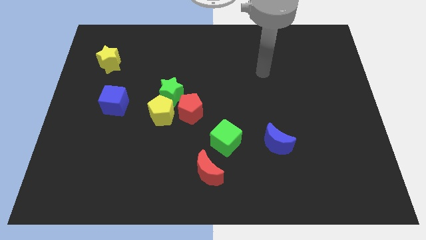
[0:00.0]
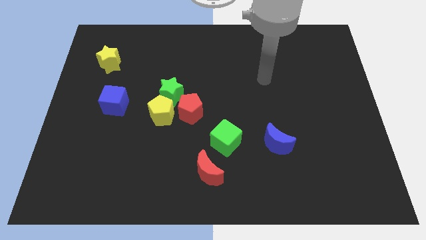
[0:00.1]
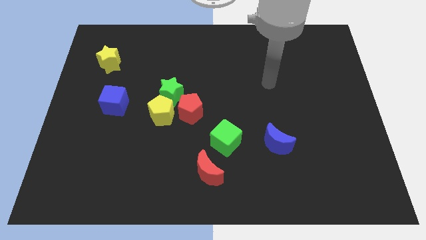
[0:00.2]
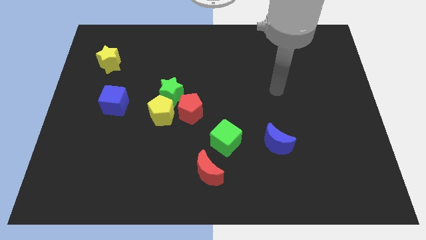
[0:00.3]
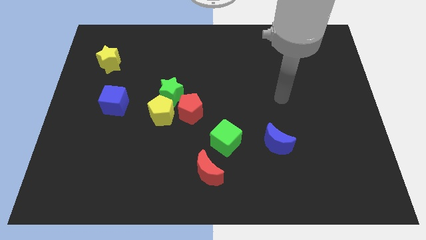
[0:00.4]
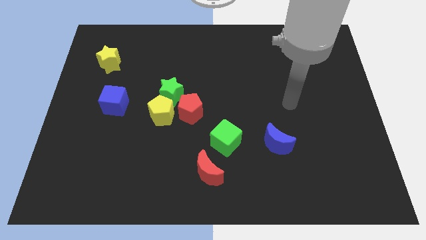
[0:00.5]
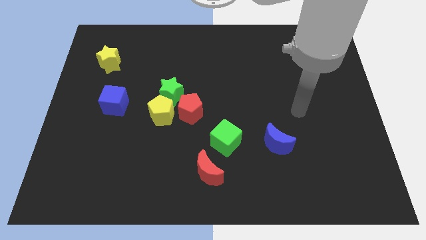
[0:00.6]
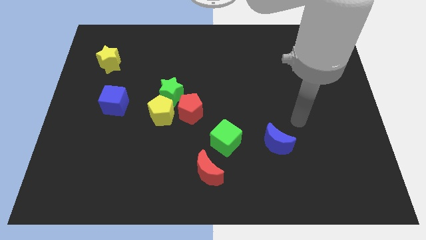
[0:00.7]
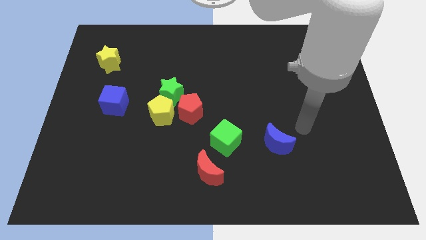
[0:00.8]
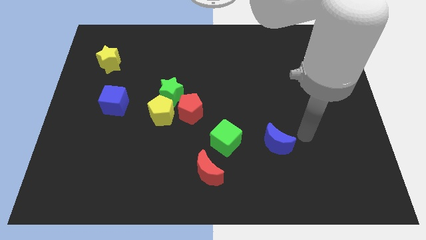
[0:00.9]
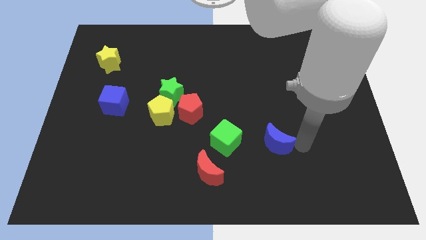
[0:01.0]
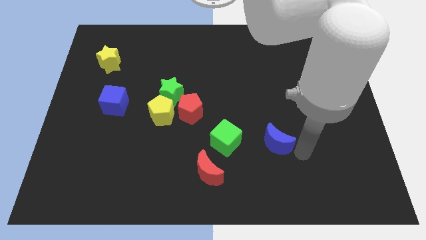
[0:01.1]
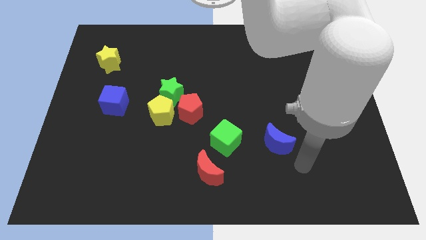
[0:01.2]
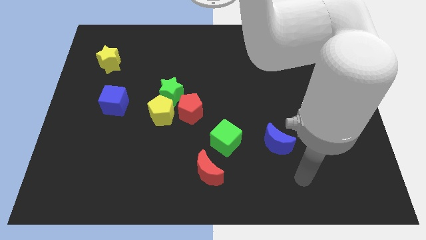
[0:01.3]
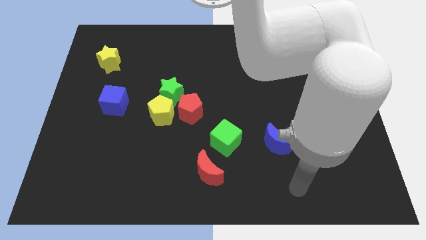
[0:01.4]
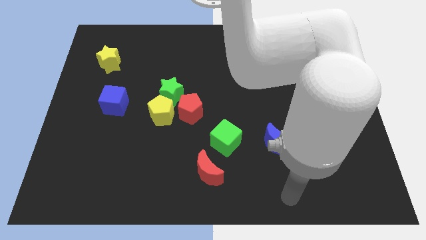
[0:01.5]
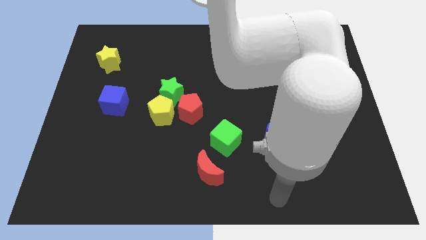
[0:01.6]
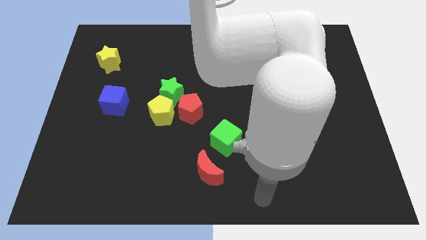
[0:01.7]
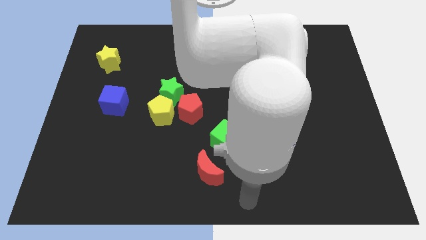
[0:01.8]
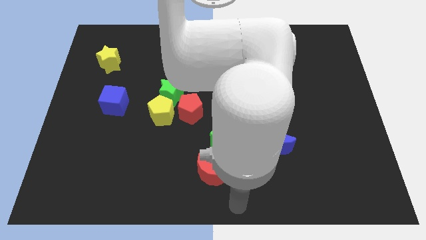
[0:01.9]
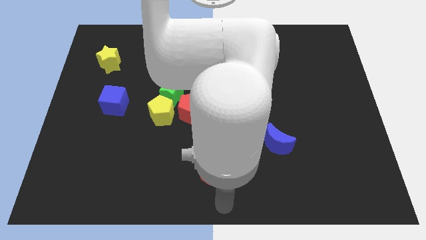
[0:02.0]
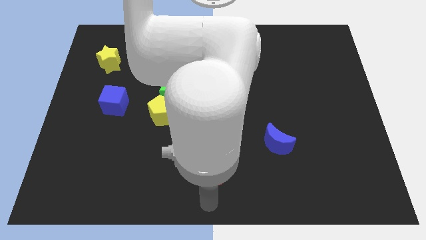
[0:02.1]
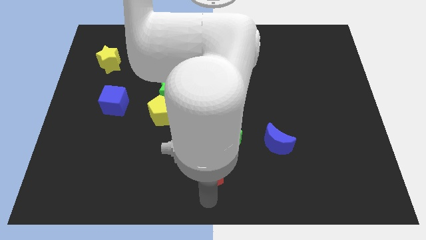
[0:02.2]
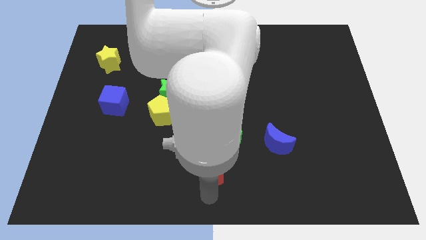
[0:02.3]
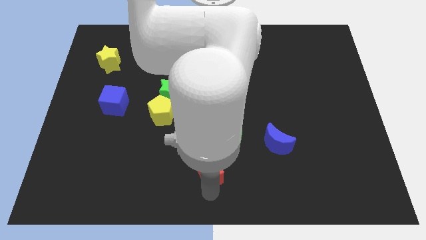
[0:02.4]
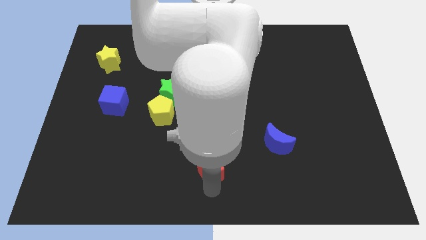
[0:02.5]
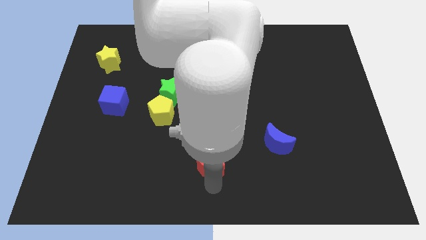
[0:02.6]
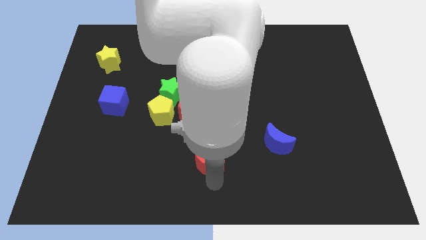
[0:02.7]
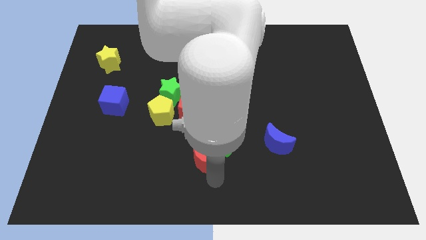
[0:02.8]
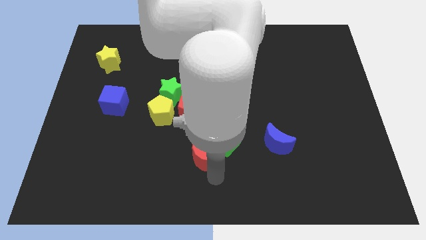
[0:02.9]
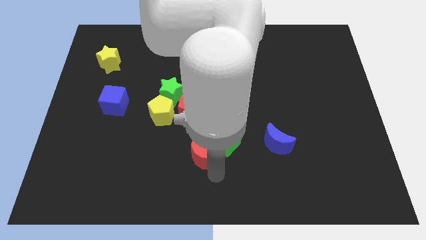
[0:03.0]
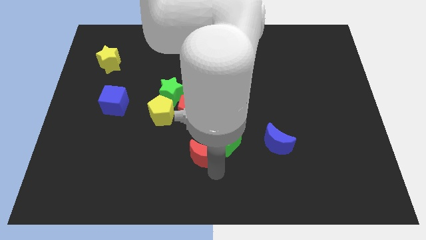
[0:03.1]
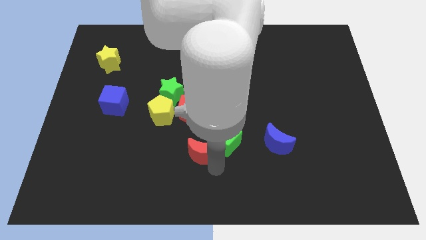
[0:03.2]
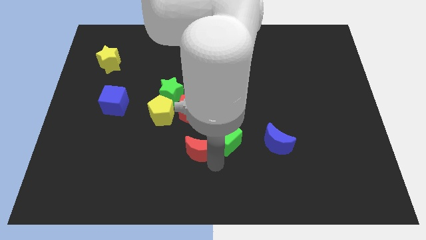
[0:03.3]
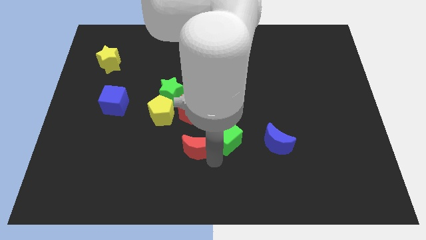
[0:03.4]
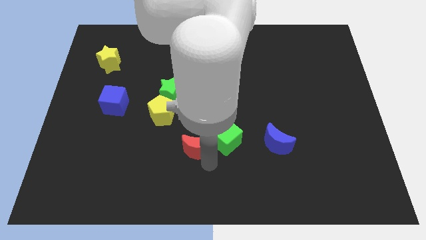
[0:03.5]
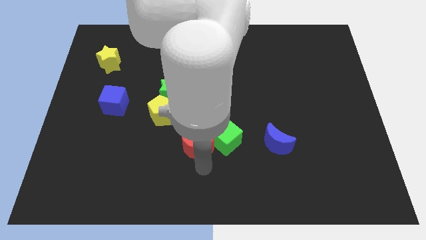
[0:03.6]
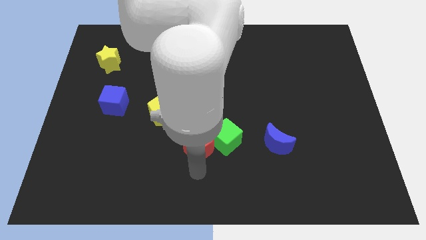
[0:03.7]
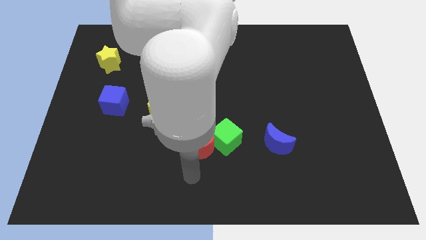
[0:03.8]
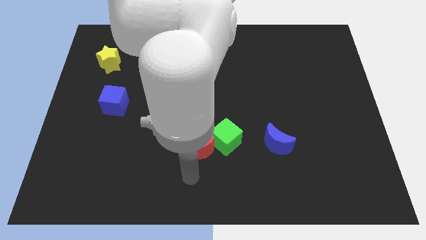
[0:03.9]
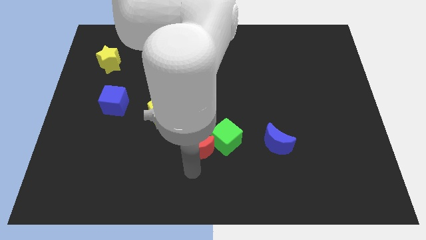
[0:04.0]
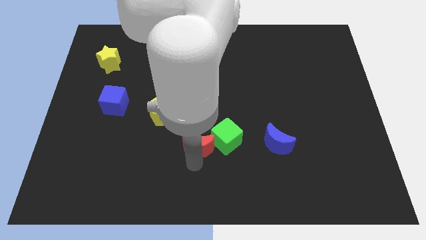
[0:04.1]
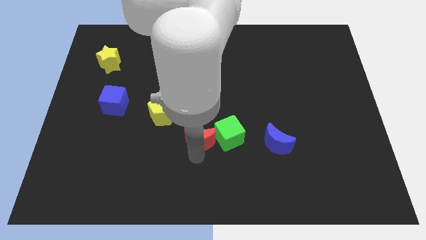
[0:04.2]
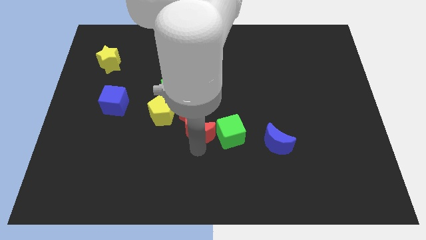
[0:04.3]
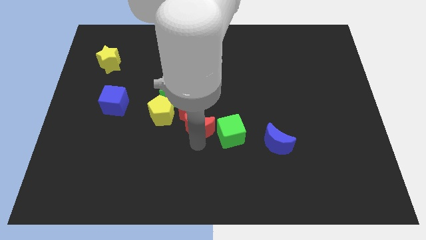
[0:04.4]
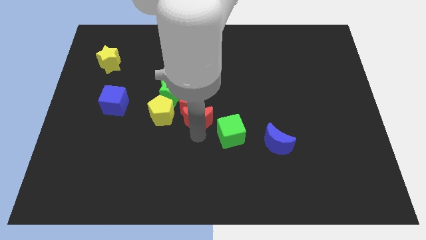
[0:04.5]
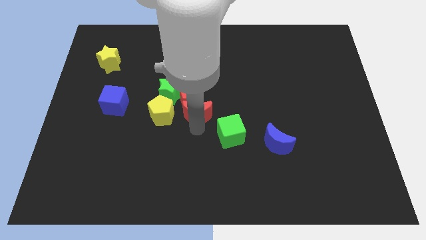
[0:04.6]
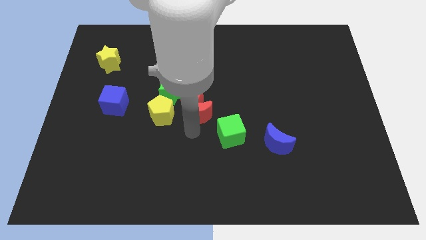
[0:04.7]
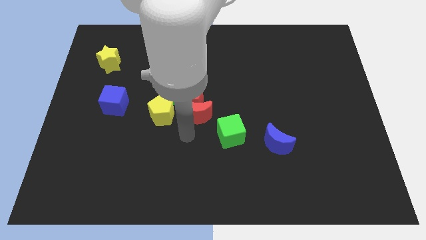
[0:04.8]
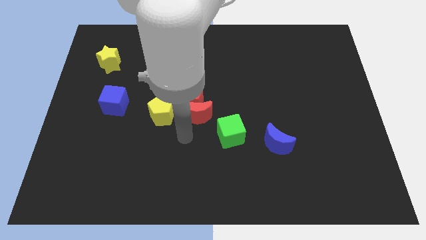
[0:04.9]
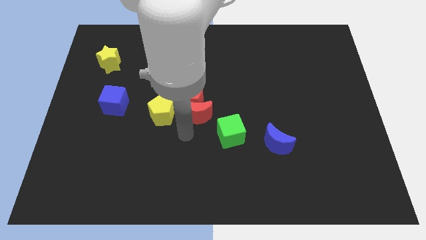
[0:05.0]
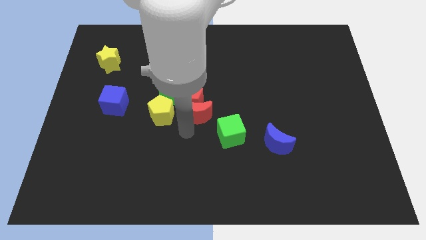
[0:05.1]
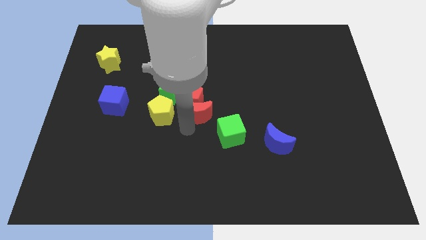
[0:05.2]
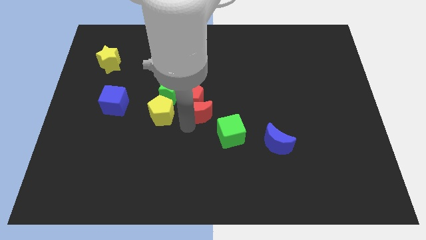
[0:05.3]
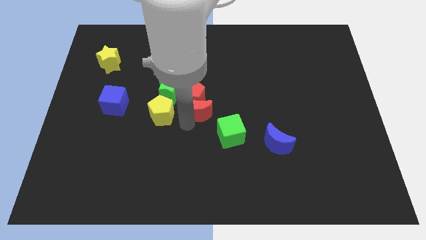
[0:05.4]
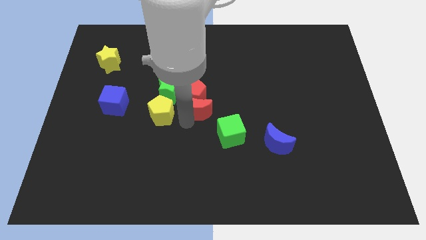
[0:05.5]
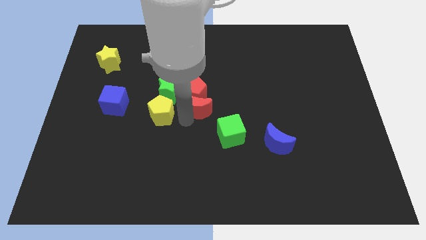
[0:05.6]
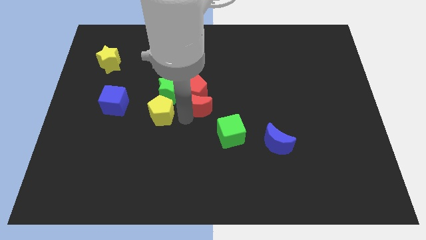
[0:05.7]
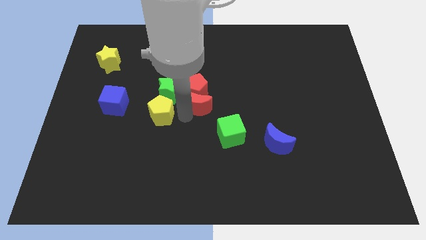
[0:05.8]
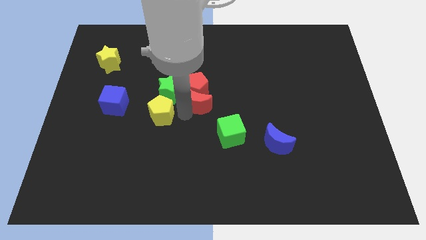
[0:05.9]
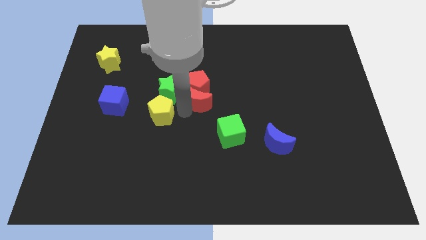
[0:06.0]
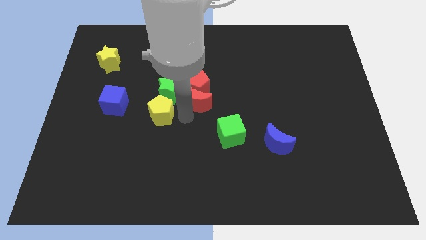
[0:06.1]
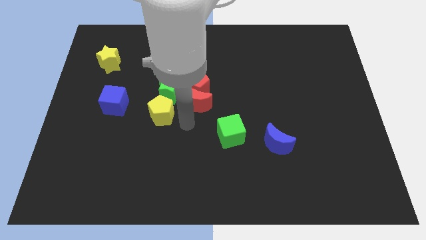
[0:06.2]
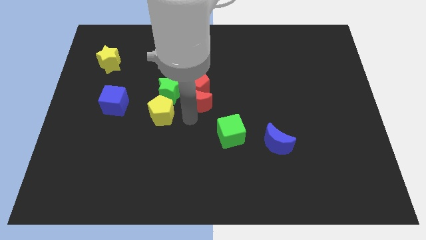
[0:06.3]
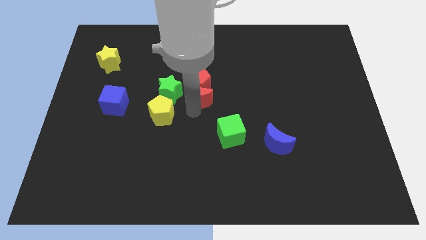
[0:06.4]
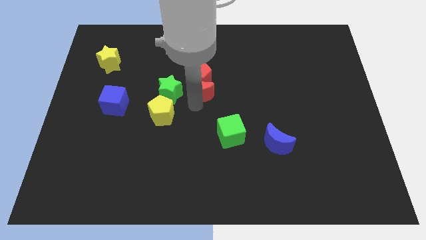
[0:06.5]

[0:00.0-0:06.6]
push the red moon up

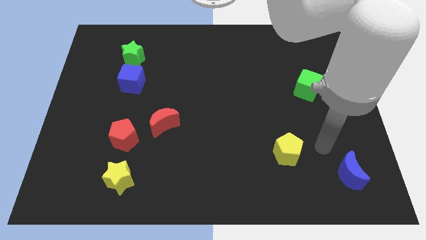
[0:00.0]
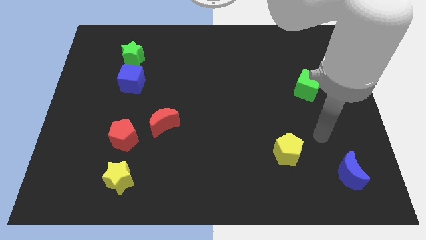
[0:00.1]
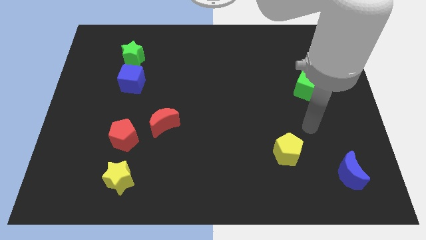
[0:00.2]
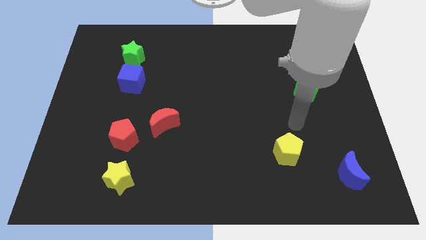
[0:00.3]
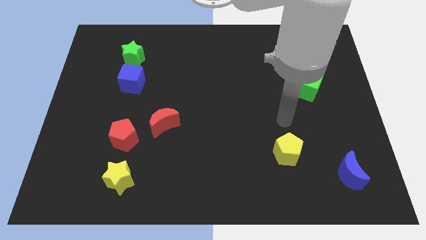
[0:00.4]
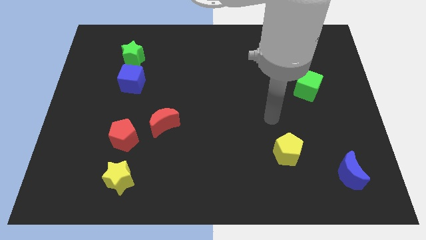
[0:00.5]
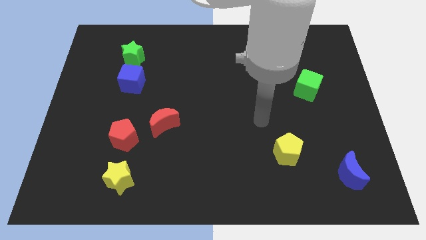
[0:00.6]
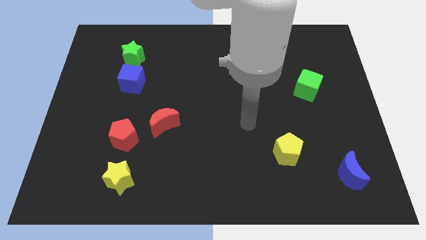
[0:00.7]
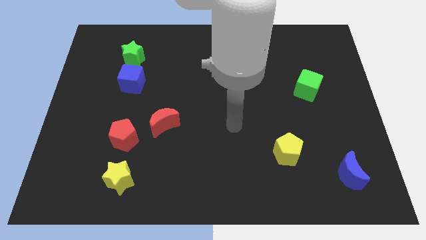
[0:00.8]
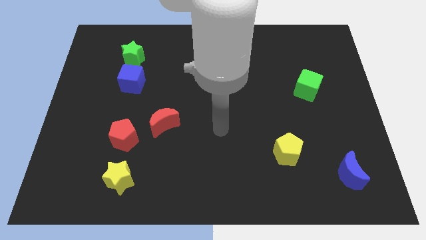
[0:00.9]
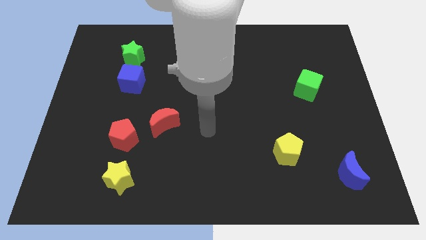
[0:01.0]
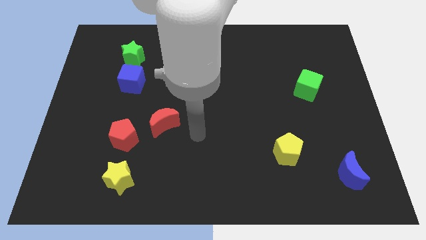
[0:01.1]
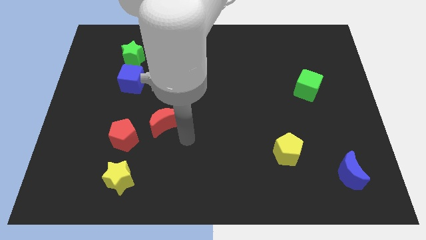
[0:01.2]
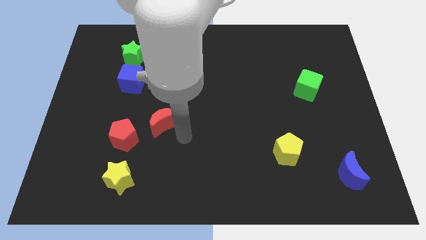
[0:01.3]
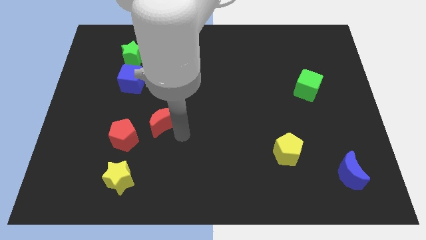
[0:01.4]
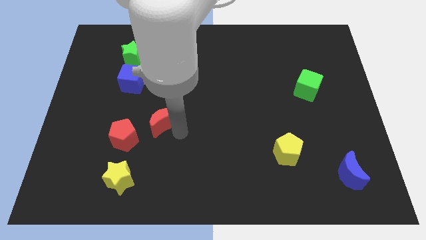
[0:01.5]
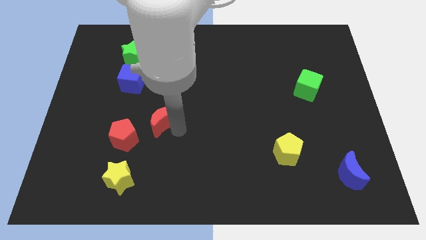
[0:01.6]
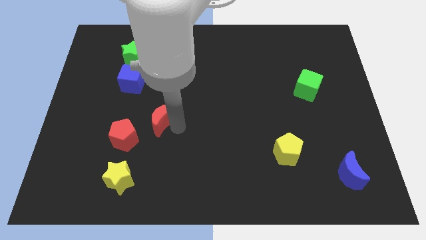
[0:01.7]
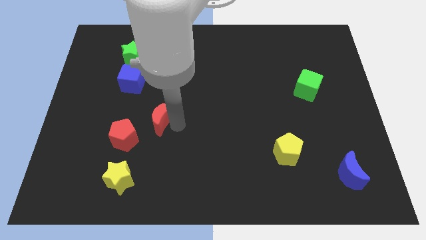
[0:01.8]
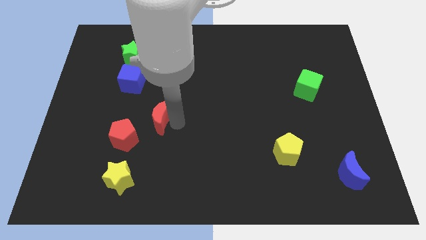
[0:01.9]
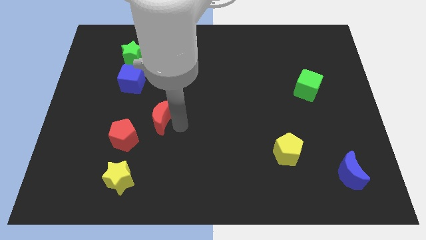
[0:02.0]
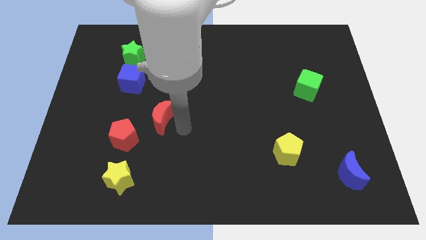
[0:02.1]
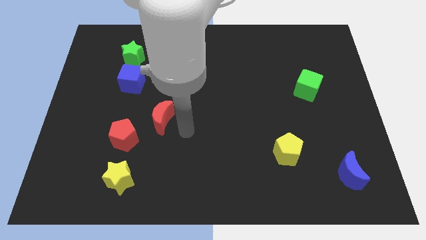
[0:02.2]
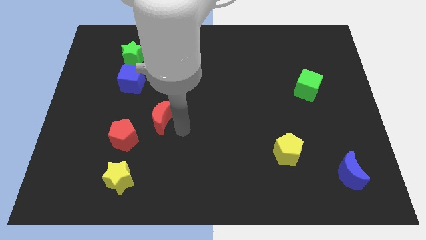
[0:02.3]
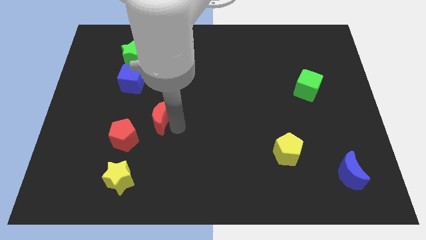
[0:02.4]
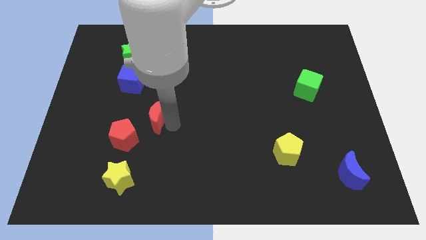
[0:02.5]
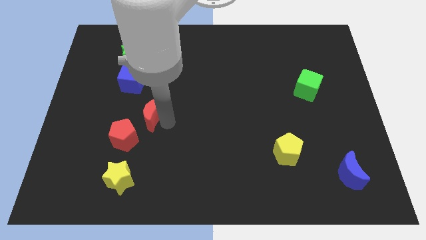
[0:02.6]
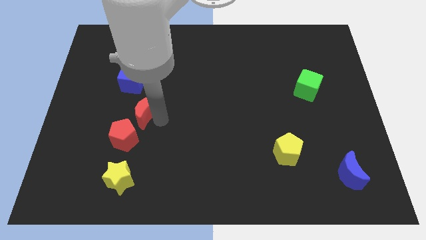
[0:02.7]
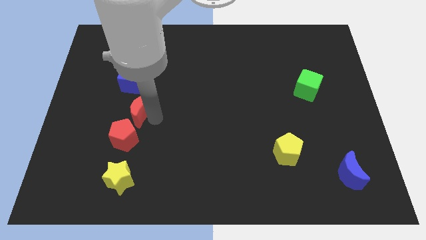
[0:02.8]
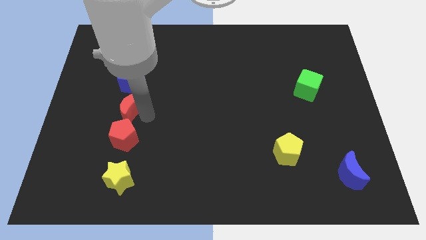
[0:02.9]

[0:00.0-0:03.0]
slide the red moon up and to the left a little bit
